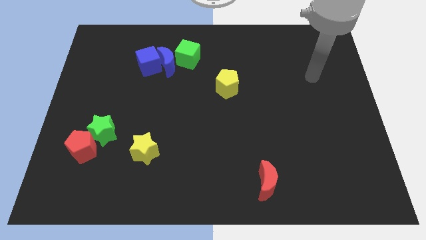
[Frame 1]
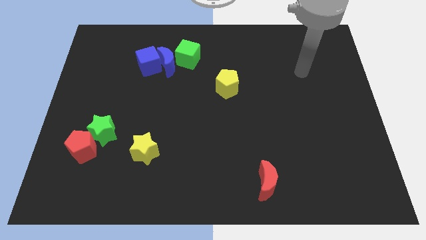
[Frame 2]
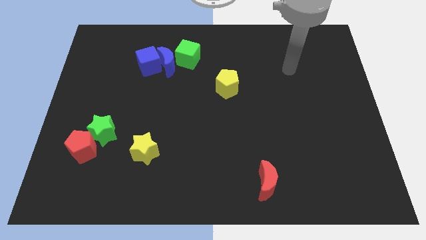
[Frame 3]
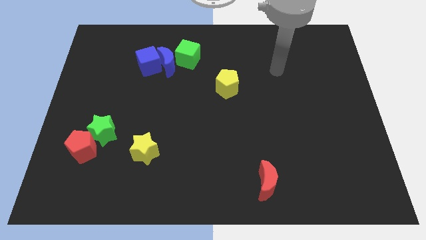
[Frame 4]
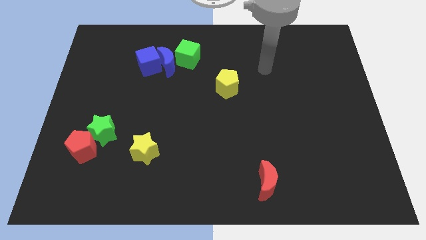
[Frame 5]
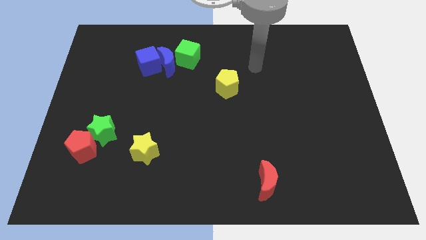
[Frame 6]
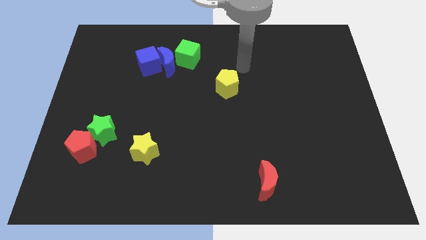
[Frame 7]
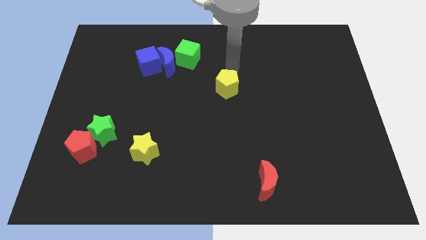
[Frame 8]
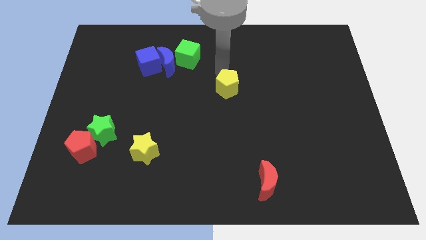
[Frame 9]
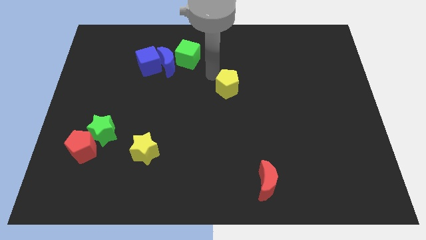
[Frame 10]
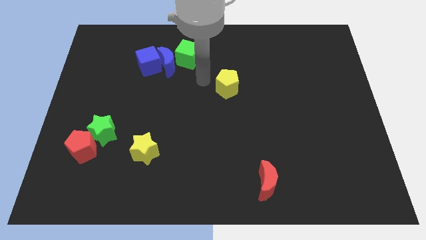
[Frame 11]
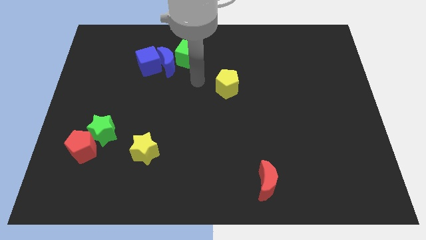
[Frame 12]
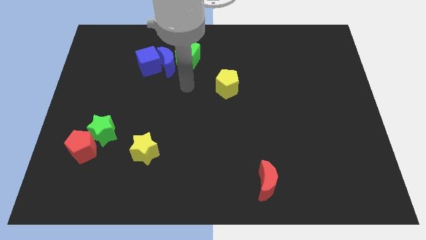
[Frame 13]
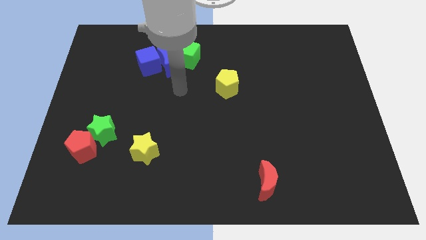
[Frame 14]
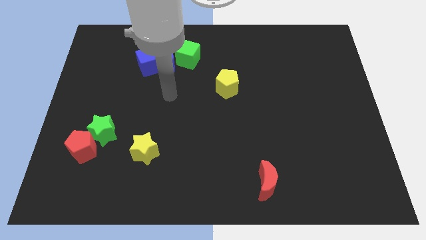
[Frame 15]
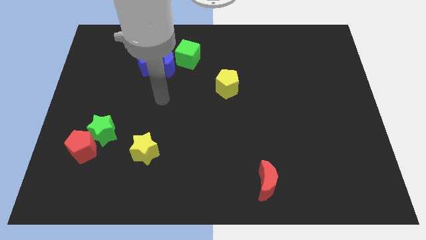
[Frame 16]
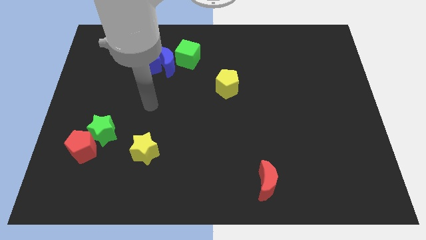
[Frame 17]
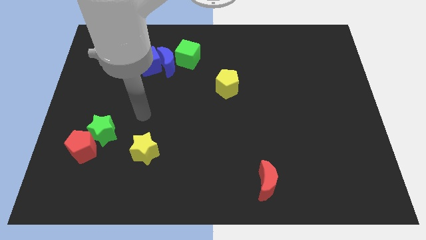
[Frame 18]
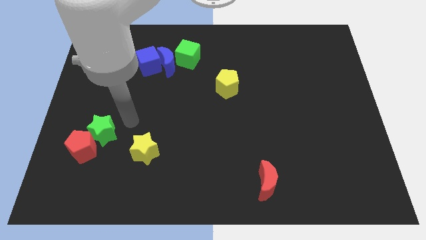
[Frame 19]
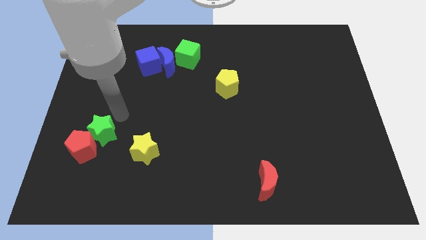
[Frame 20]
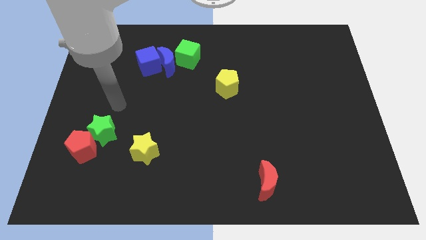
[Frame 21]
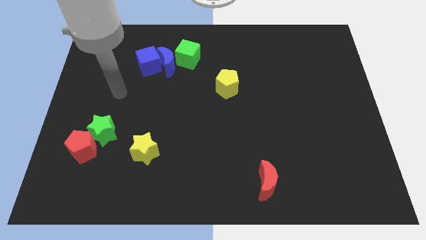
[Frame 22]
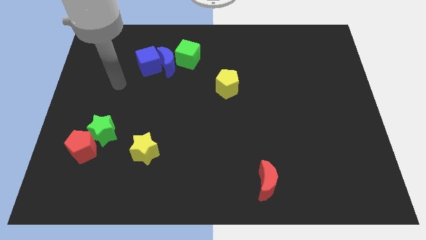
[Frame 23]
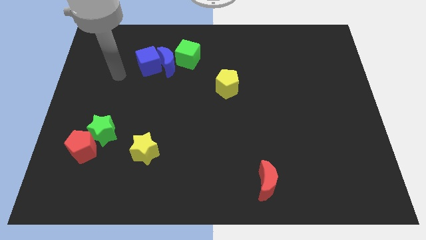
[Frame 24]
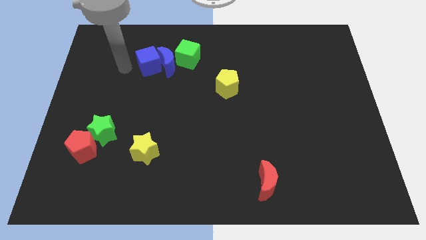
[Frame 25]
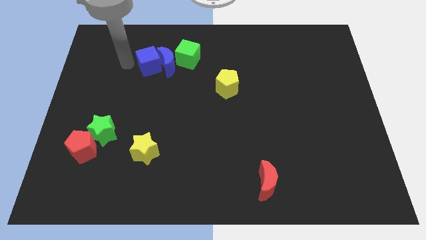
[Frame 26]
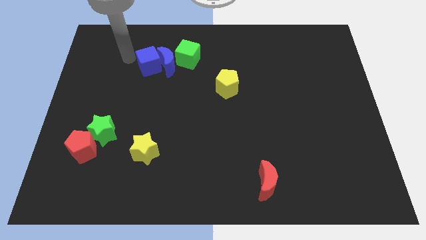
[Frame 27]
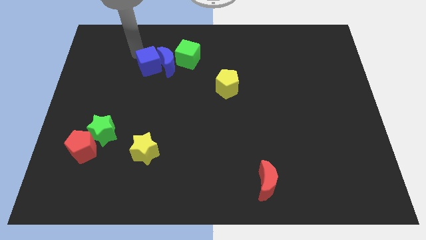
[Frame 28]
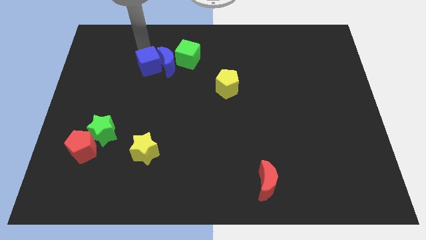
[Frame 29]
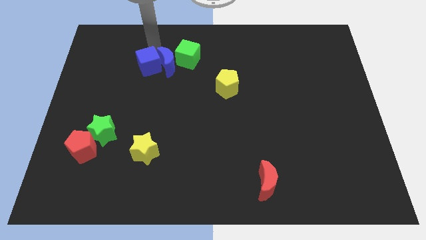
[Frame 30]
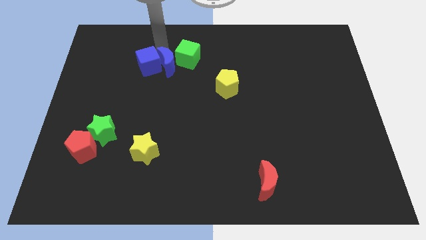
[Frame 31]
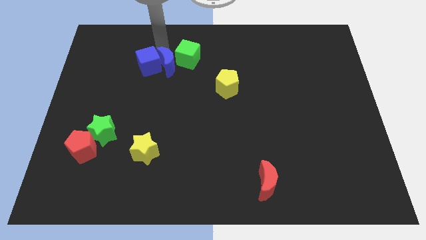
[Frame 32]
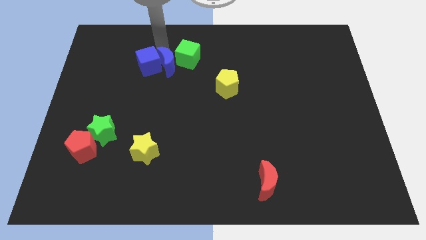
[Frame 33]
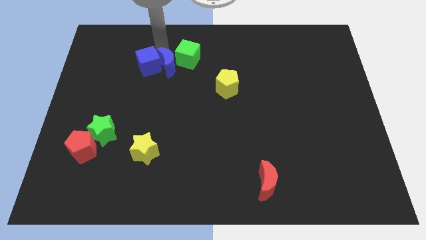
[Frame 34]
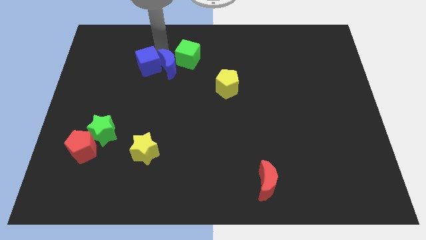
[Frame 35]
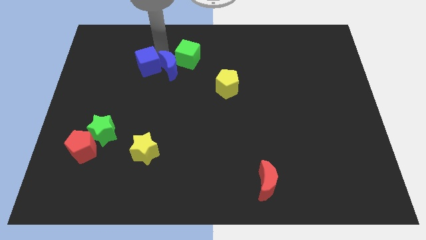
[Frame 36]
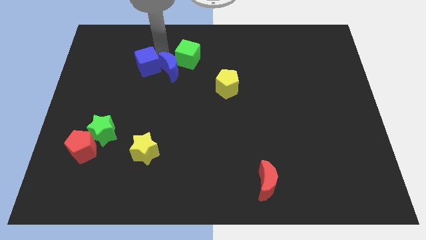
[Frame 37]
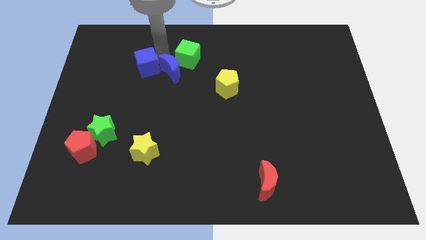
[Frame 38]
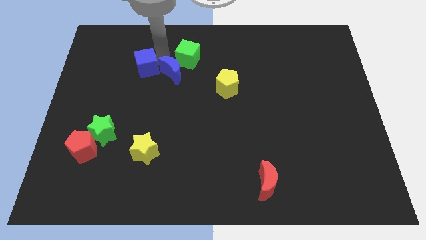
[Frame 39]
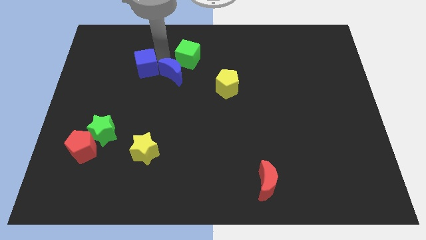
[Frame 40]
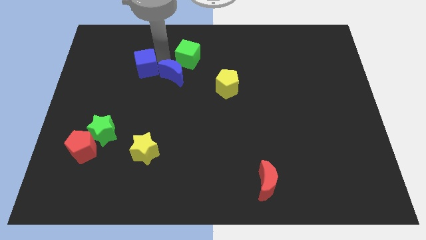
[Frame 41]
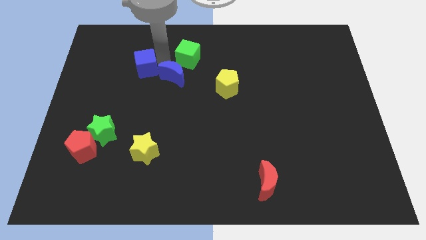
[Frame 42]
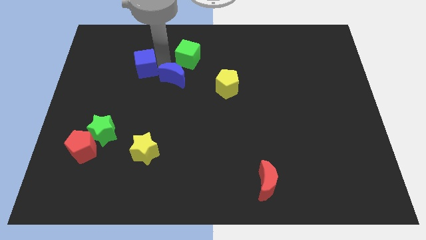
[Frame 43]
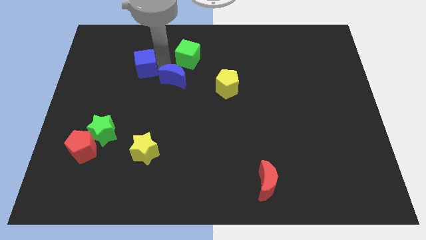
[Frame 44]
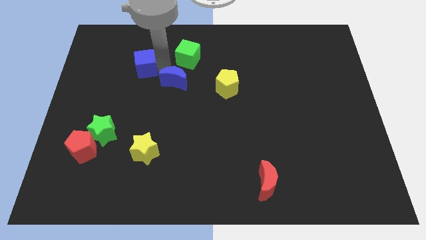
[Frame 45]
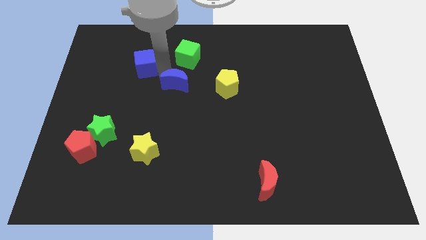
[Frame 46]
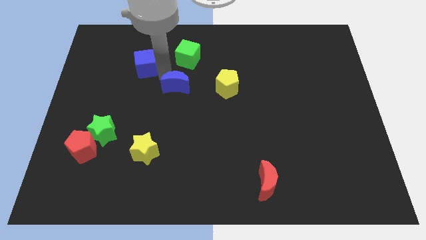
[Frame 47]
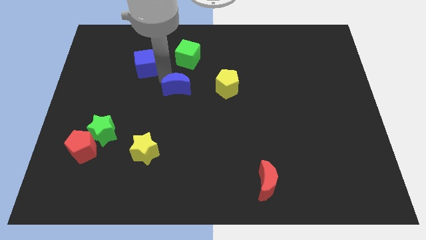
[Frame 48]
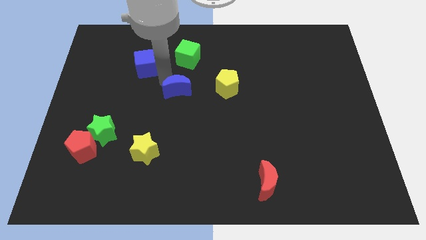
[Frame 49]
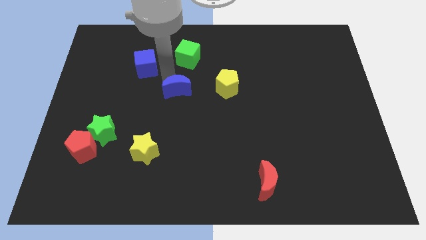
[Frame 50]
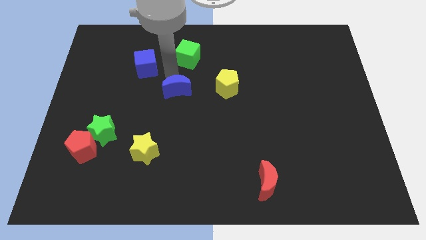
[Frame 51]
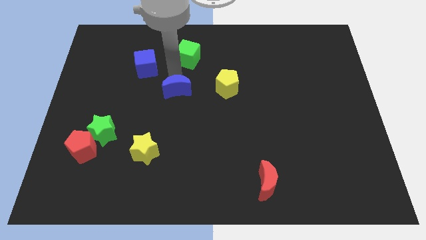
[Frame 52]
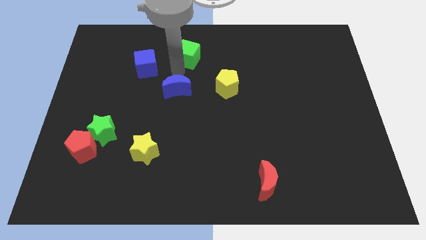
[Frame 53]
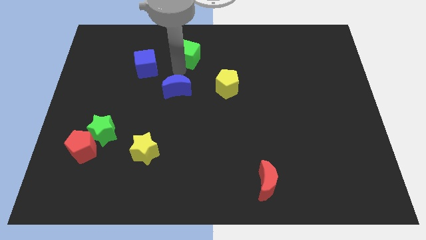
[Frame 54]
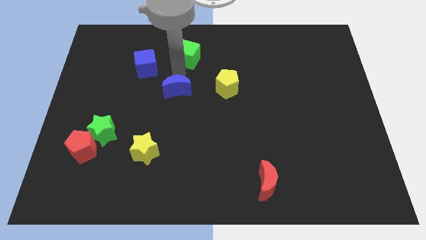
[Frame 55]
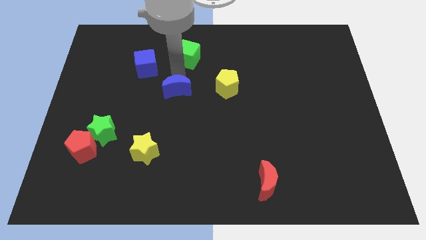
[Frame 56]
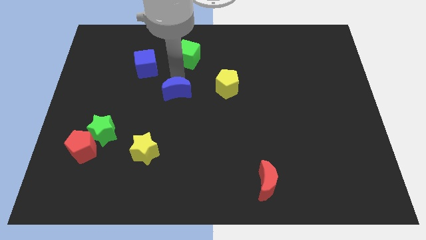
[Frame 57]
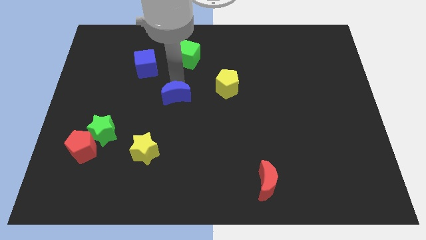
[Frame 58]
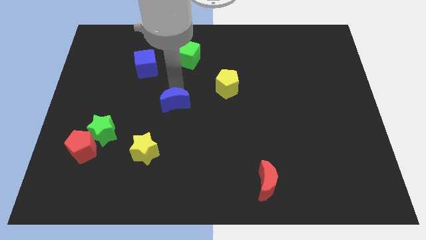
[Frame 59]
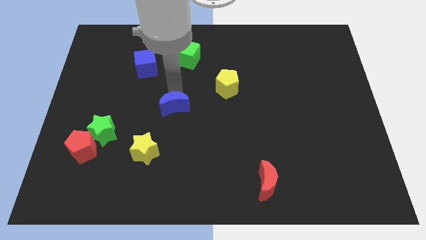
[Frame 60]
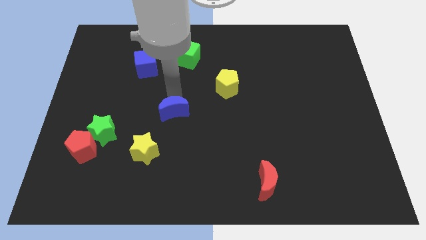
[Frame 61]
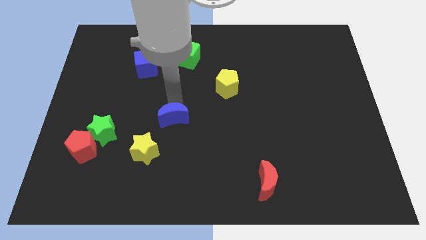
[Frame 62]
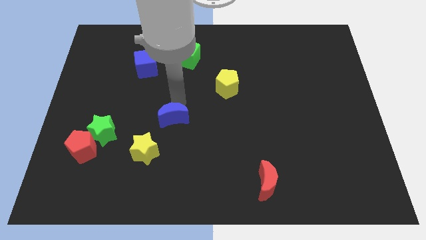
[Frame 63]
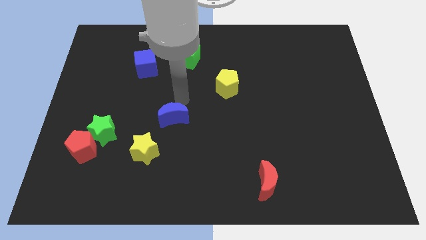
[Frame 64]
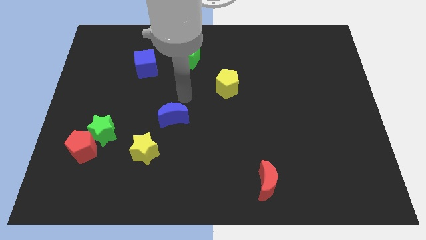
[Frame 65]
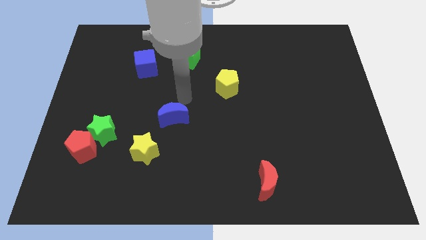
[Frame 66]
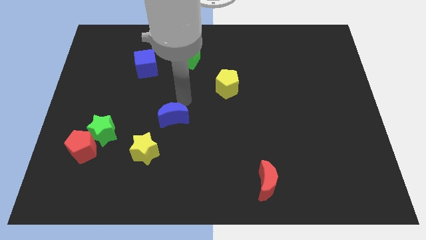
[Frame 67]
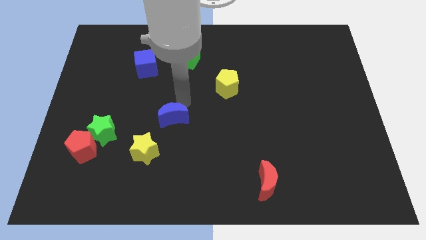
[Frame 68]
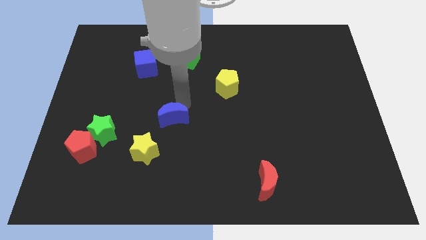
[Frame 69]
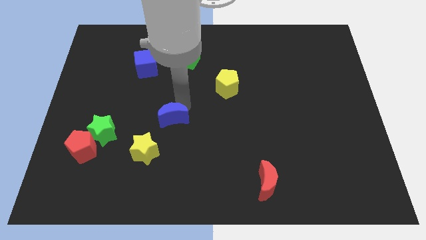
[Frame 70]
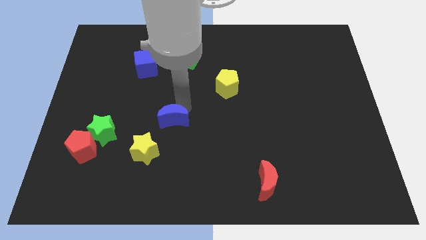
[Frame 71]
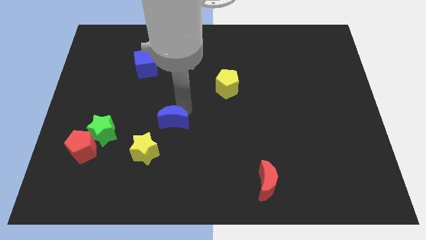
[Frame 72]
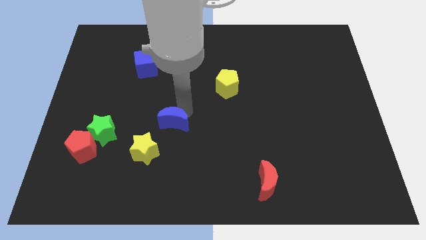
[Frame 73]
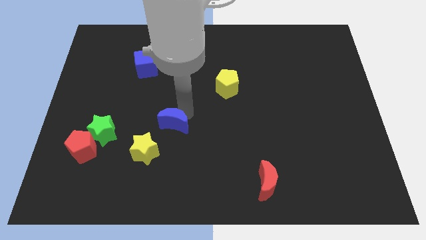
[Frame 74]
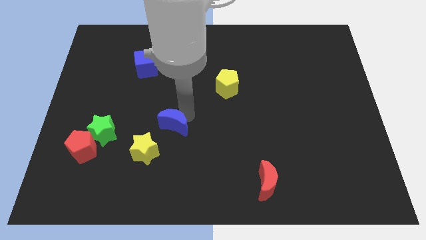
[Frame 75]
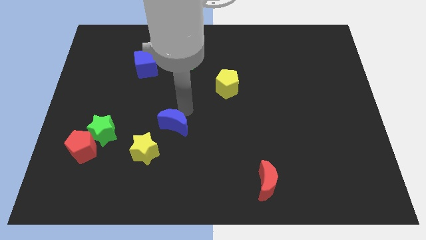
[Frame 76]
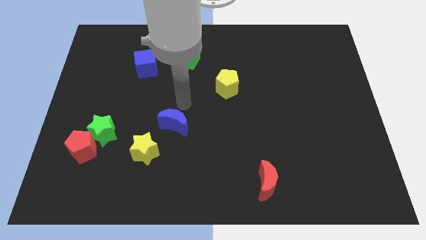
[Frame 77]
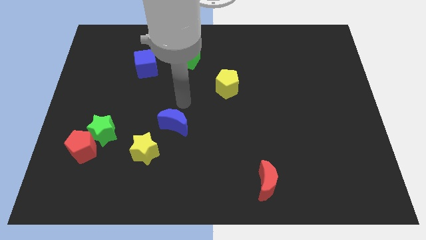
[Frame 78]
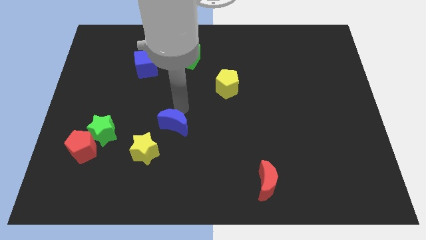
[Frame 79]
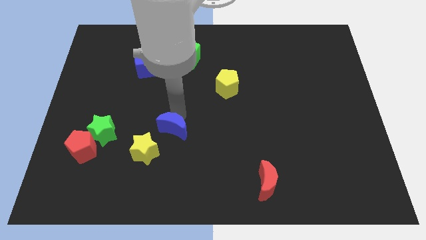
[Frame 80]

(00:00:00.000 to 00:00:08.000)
slide the blue moon down

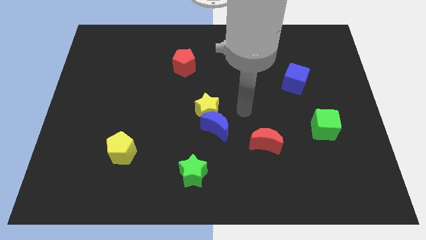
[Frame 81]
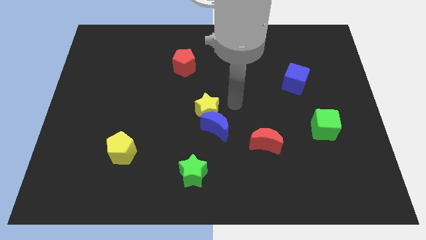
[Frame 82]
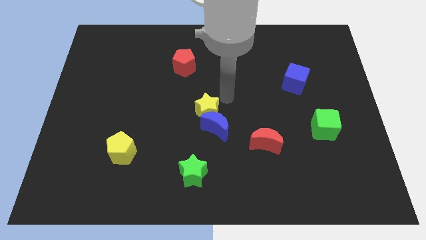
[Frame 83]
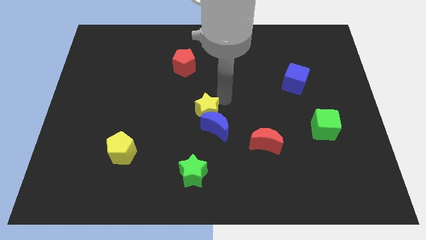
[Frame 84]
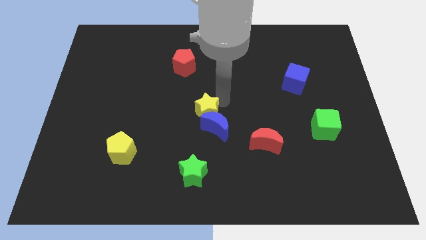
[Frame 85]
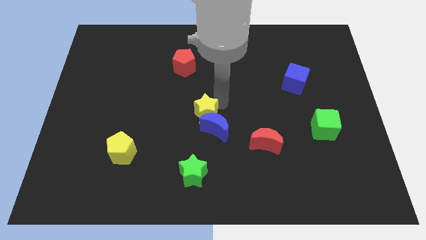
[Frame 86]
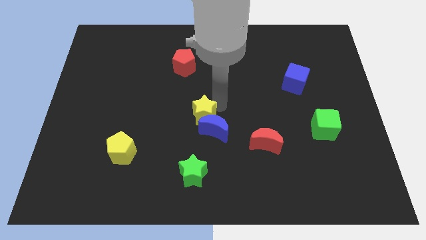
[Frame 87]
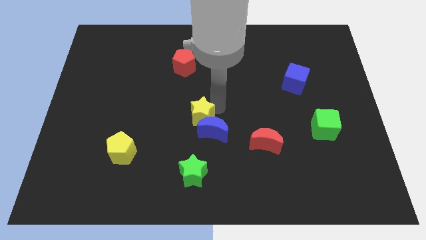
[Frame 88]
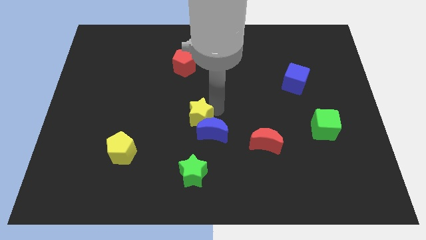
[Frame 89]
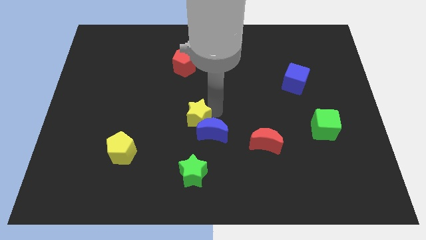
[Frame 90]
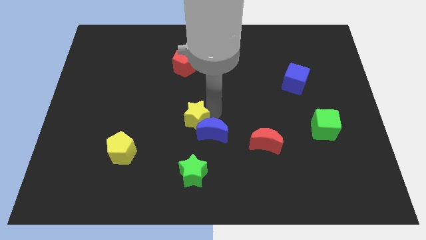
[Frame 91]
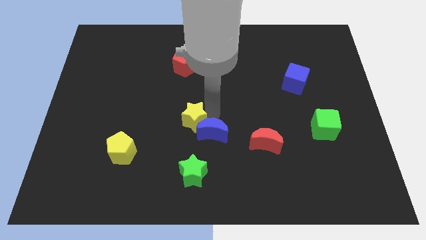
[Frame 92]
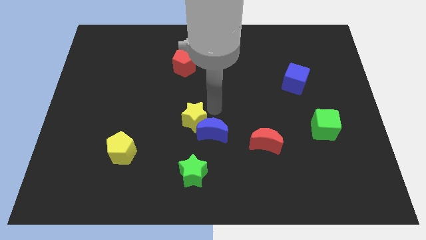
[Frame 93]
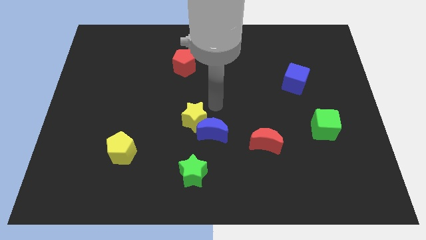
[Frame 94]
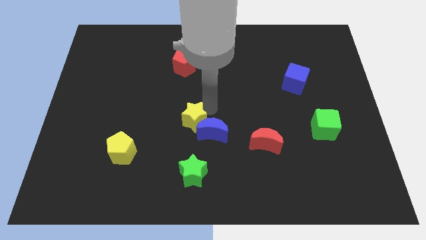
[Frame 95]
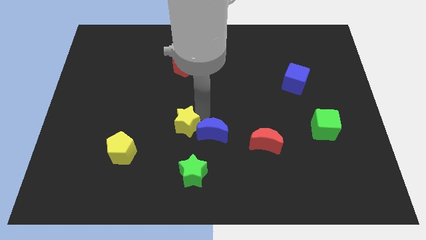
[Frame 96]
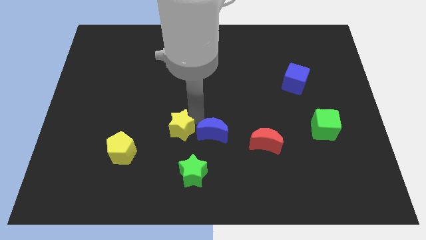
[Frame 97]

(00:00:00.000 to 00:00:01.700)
slightly push the yellow star down and to the left diagonally
